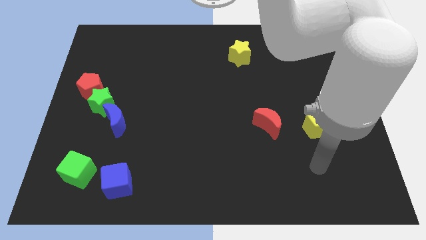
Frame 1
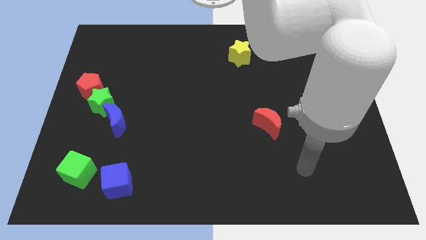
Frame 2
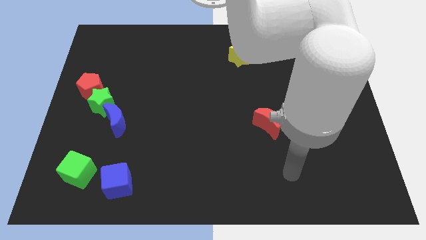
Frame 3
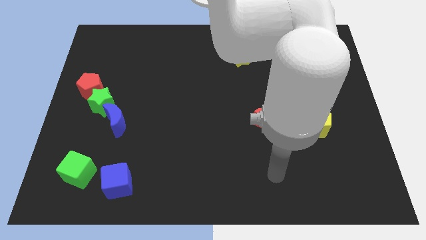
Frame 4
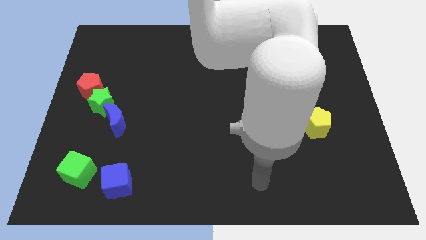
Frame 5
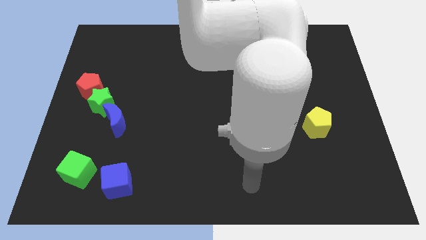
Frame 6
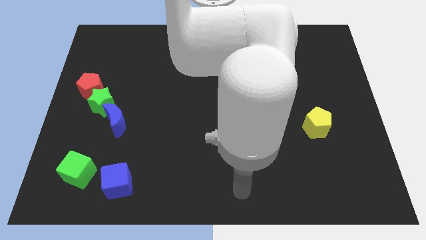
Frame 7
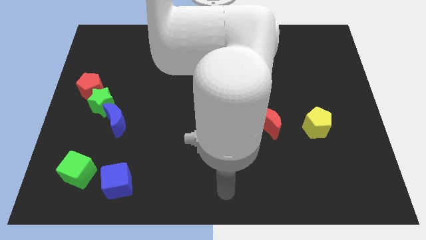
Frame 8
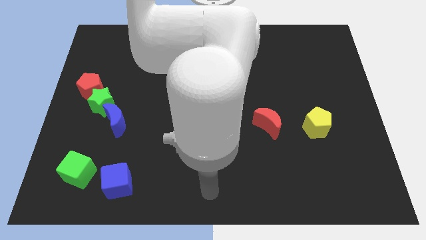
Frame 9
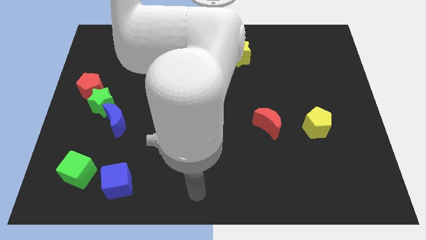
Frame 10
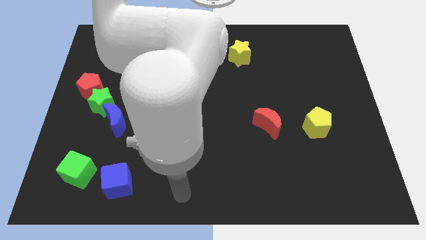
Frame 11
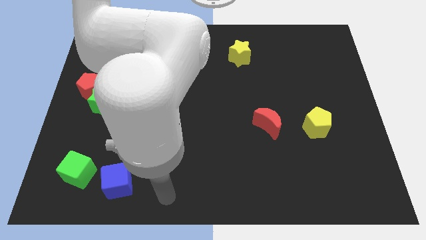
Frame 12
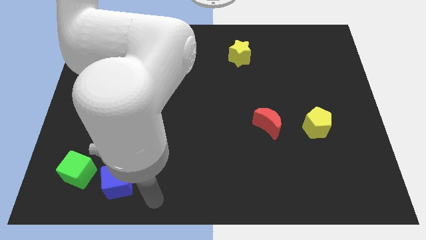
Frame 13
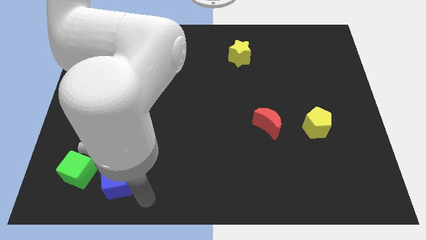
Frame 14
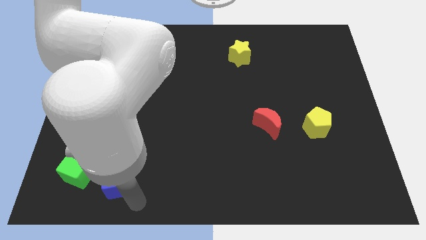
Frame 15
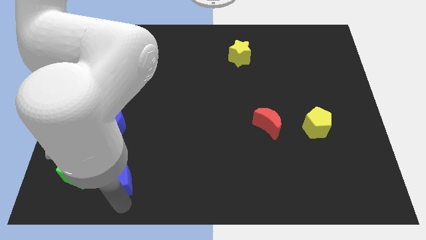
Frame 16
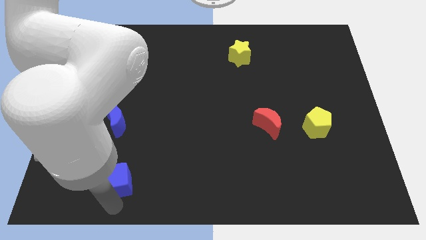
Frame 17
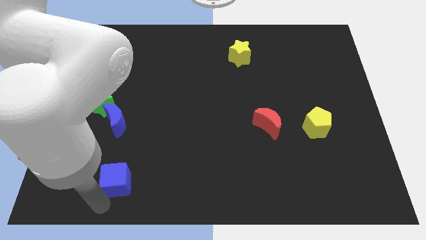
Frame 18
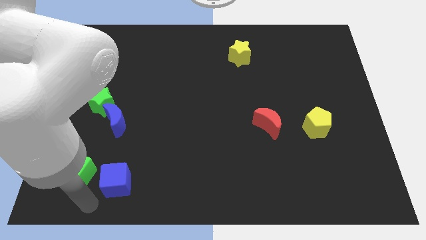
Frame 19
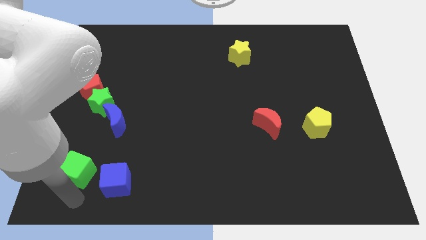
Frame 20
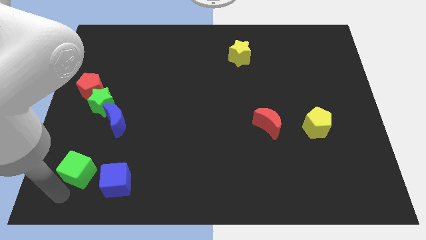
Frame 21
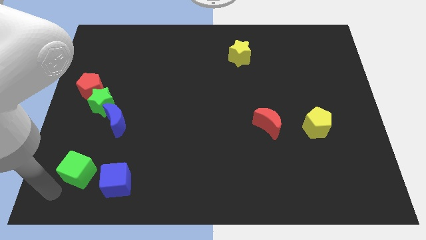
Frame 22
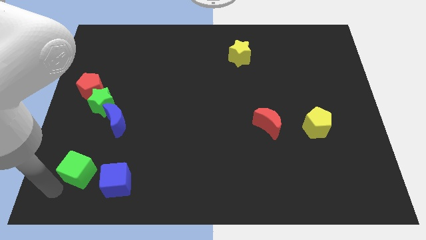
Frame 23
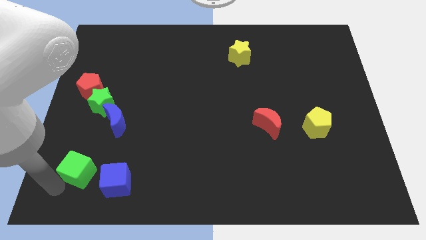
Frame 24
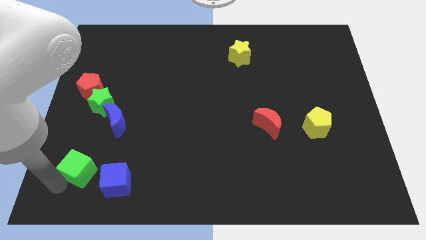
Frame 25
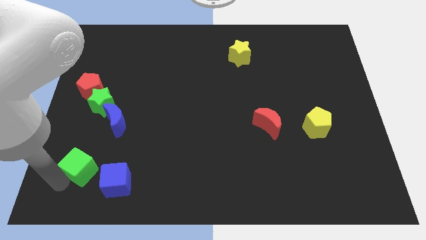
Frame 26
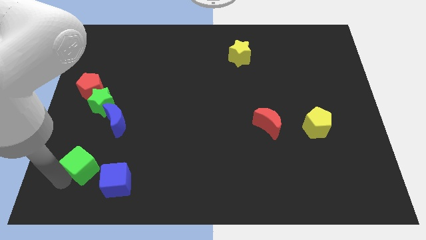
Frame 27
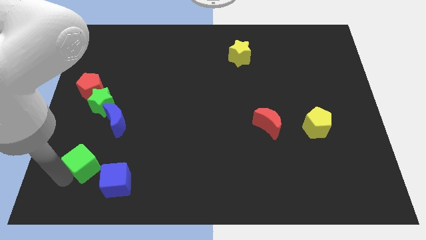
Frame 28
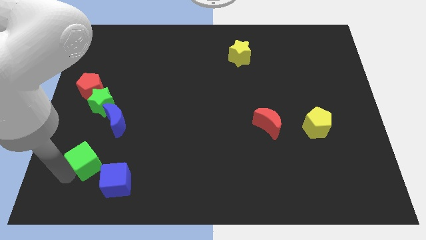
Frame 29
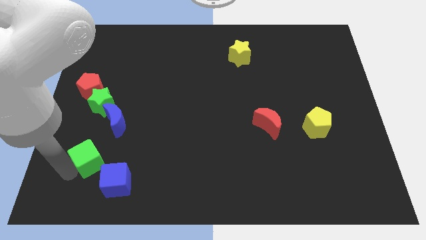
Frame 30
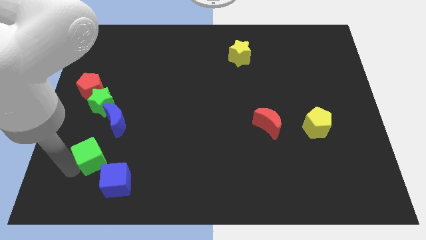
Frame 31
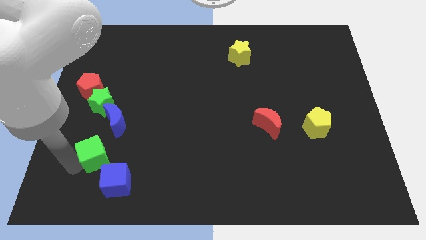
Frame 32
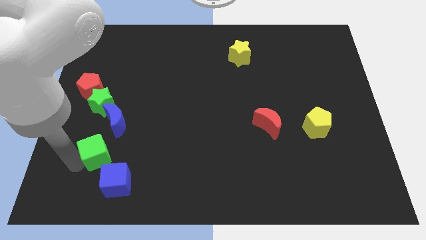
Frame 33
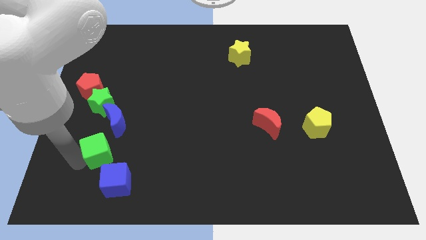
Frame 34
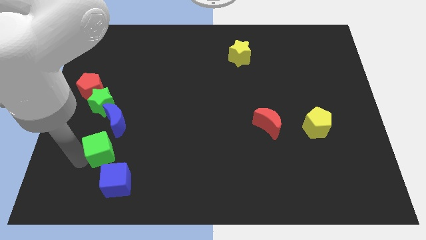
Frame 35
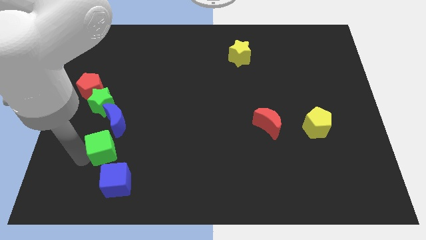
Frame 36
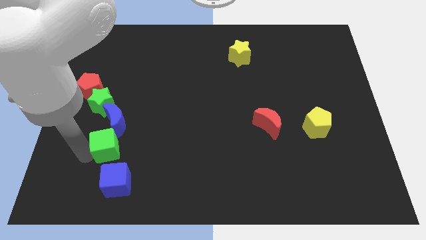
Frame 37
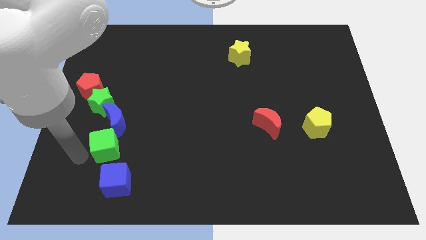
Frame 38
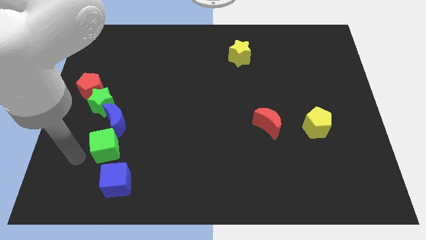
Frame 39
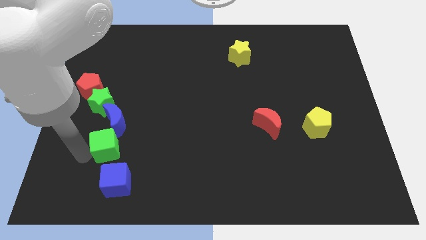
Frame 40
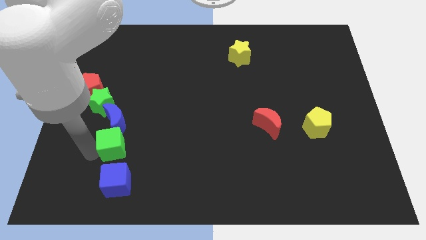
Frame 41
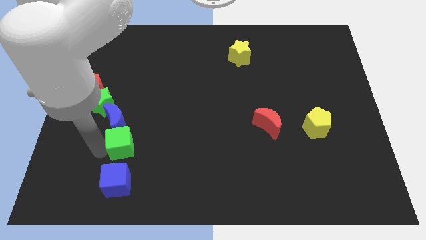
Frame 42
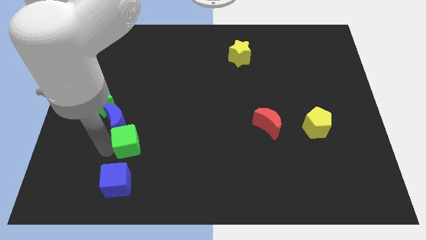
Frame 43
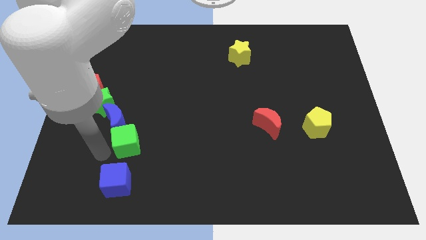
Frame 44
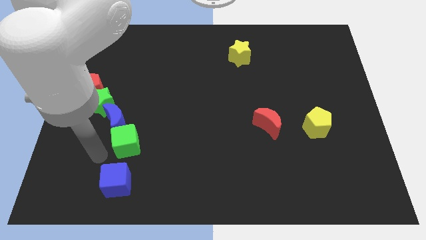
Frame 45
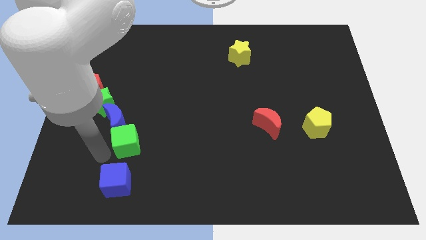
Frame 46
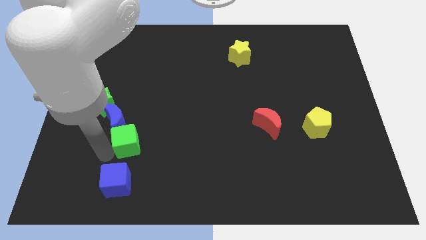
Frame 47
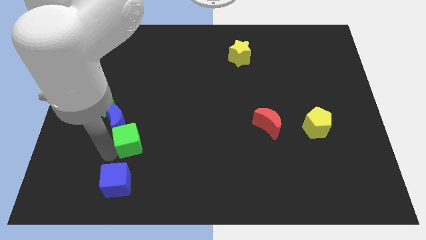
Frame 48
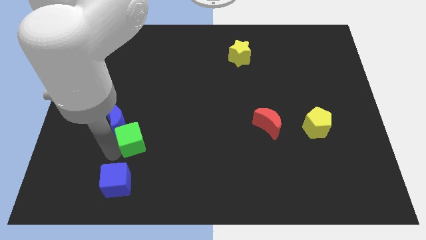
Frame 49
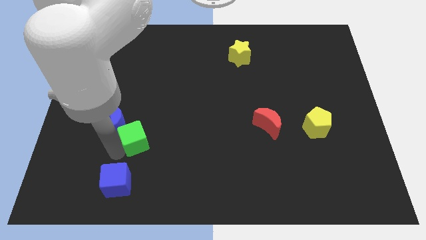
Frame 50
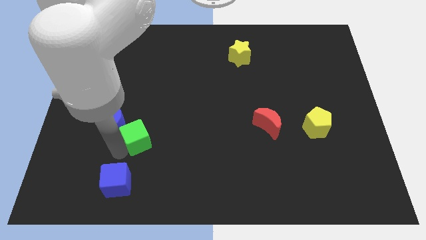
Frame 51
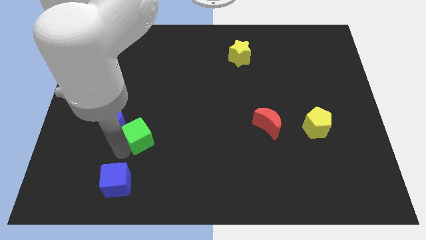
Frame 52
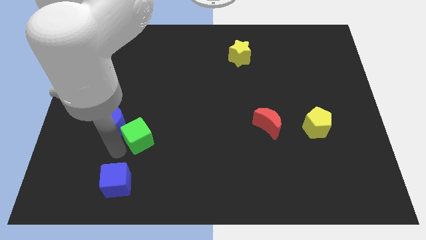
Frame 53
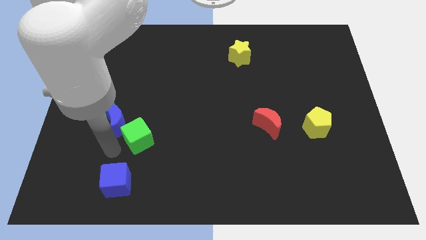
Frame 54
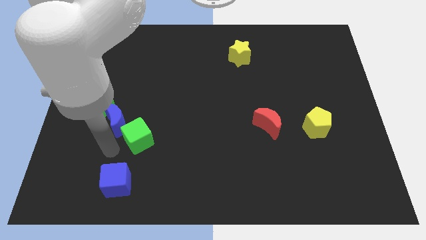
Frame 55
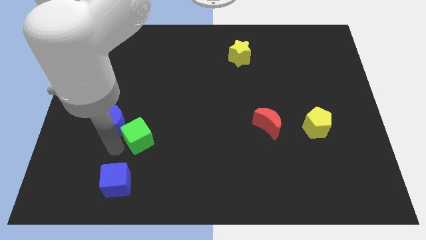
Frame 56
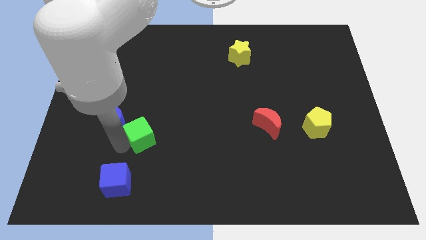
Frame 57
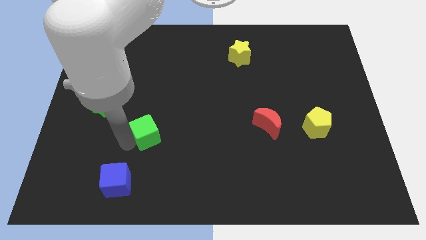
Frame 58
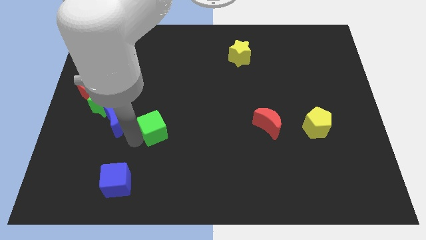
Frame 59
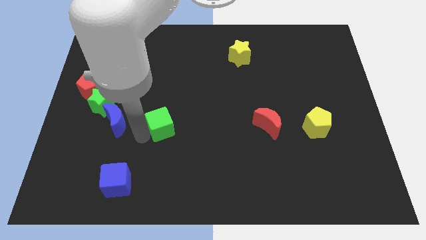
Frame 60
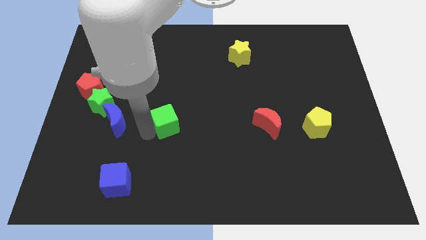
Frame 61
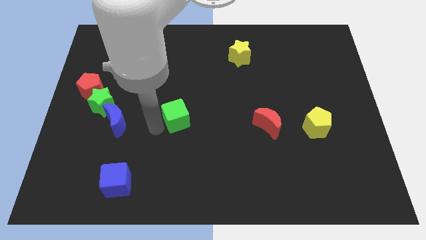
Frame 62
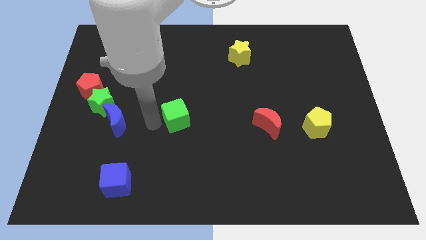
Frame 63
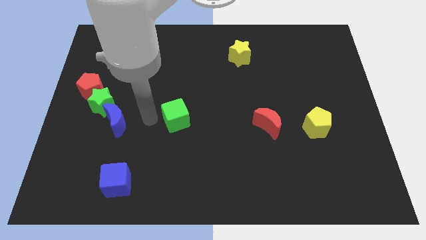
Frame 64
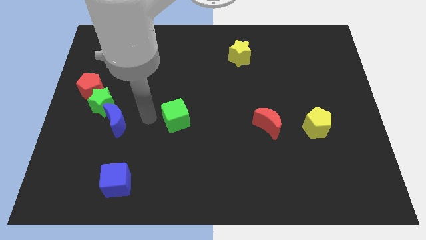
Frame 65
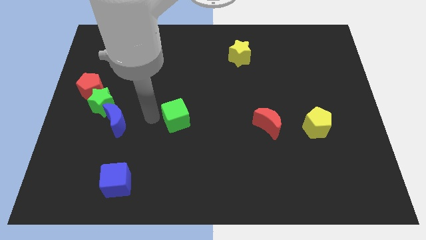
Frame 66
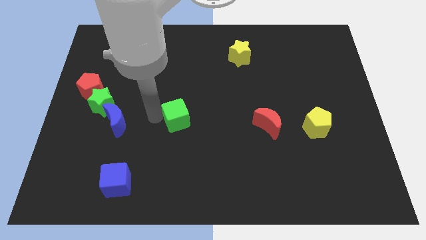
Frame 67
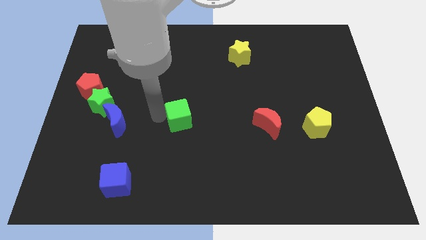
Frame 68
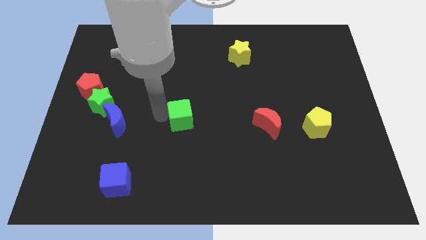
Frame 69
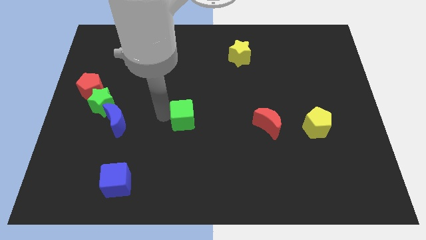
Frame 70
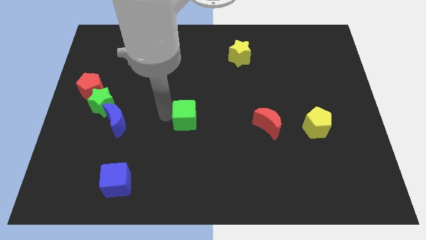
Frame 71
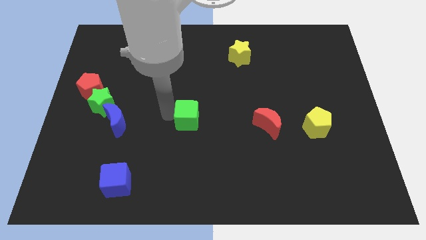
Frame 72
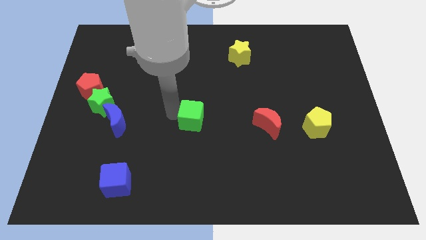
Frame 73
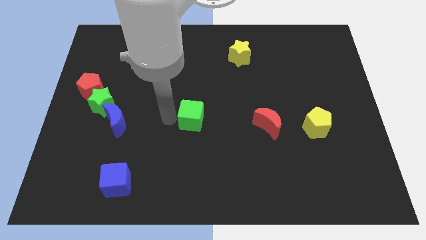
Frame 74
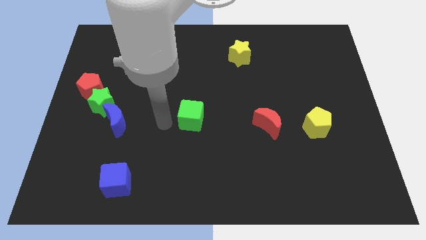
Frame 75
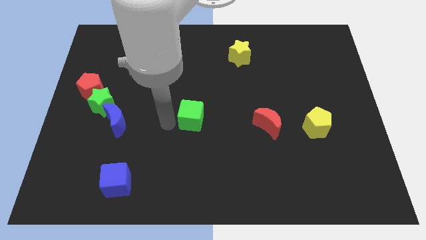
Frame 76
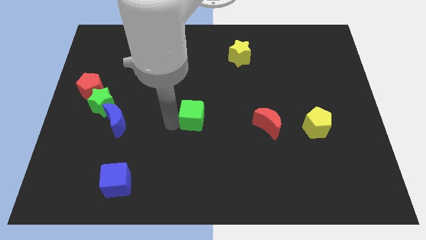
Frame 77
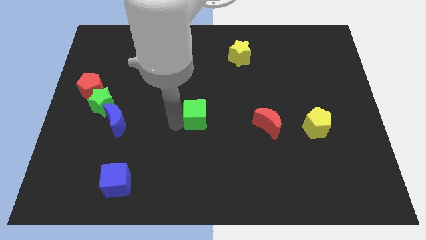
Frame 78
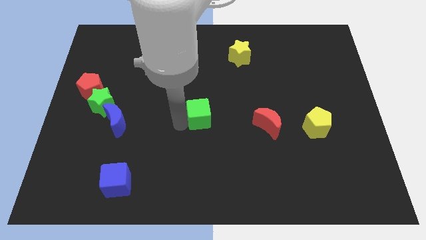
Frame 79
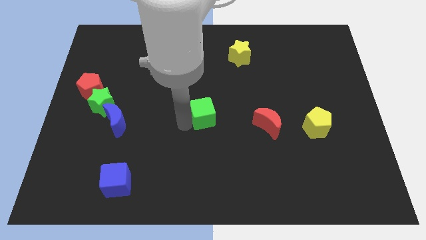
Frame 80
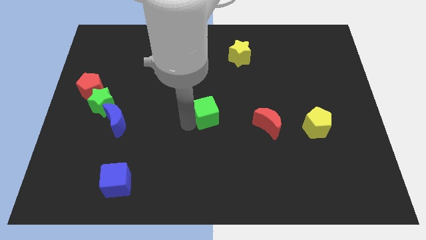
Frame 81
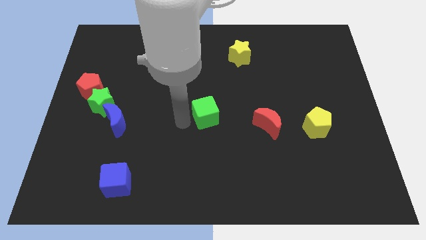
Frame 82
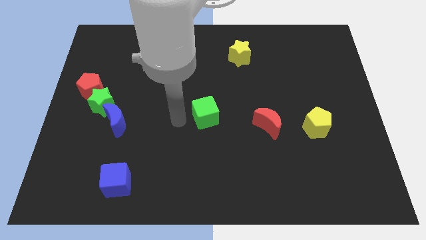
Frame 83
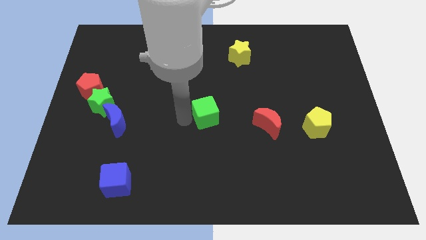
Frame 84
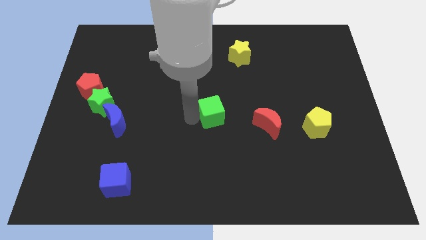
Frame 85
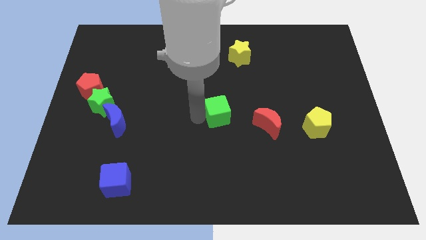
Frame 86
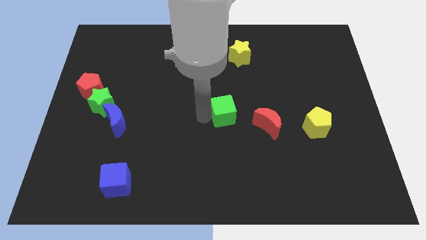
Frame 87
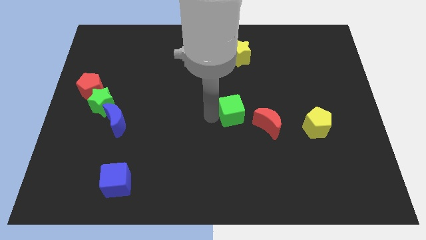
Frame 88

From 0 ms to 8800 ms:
move the green cube diagonally up and to the left of the red moon
